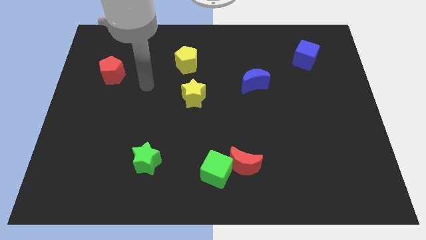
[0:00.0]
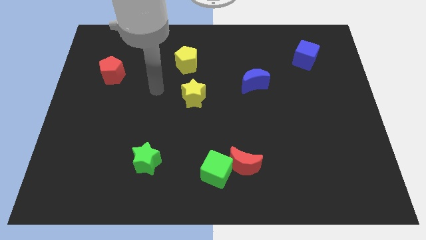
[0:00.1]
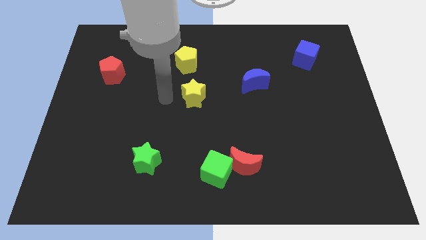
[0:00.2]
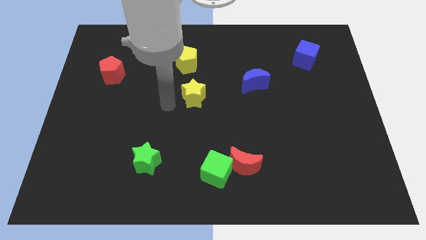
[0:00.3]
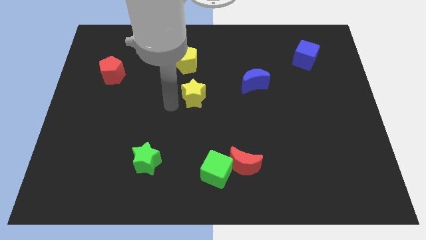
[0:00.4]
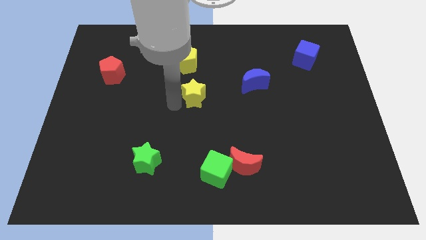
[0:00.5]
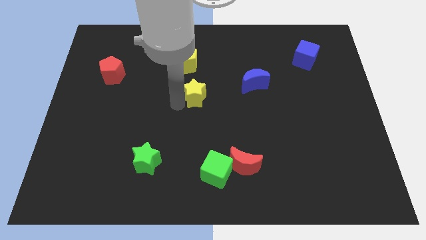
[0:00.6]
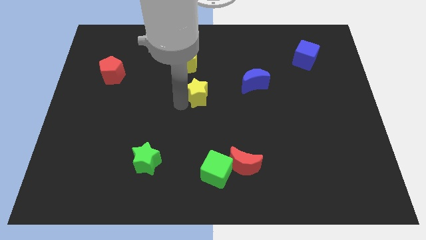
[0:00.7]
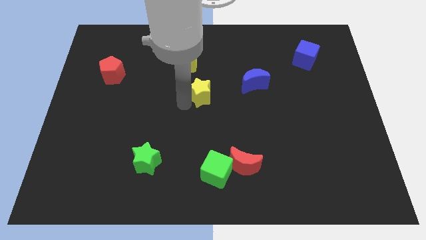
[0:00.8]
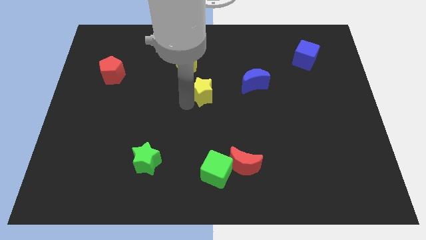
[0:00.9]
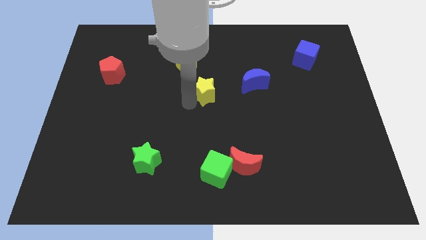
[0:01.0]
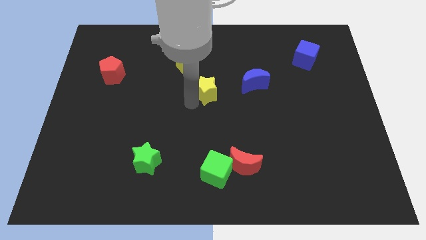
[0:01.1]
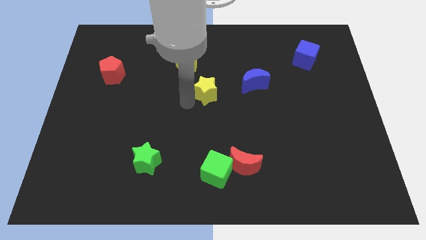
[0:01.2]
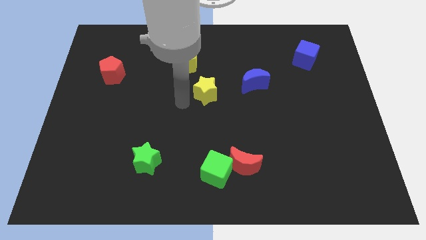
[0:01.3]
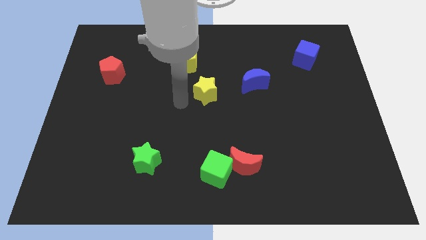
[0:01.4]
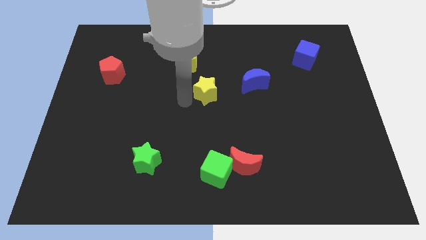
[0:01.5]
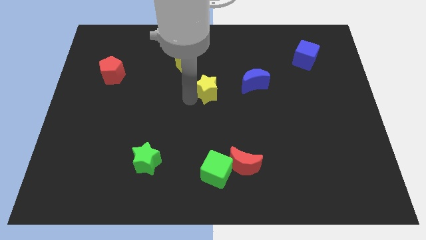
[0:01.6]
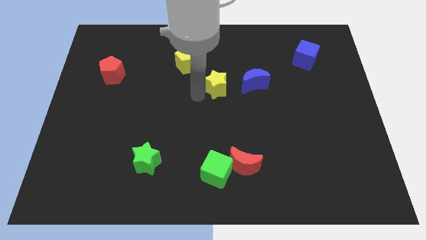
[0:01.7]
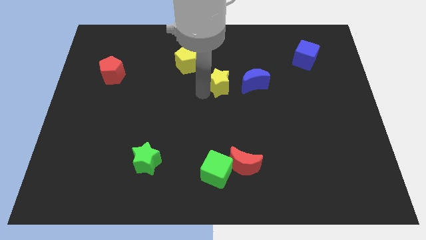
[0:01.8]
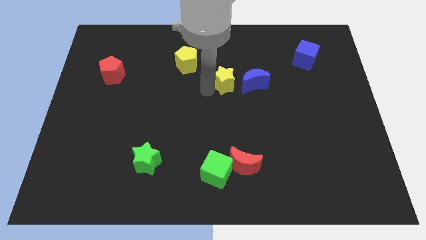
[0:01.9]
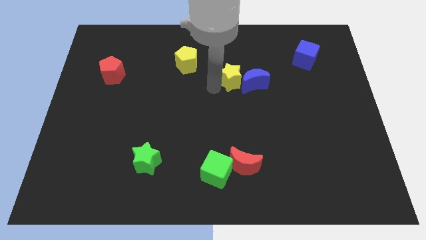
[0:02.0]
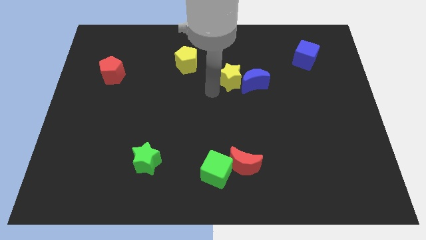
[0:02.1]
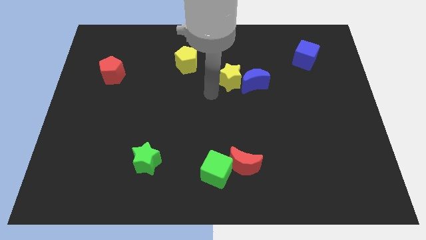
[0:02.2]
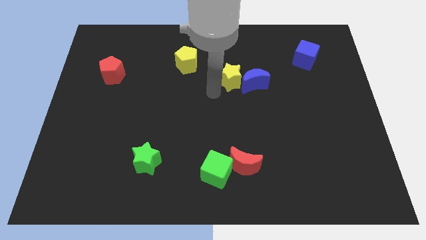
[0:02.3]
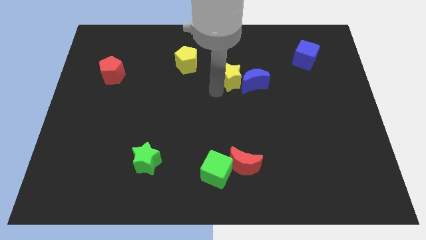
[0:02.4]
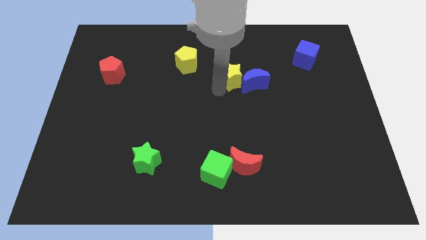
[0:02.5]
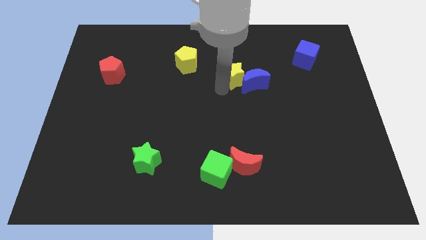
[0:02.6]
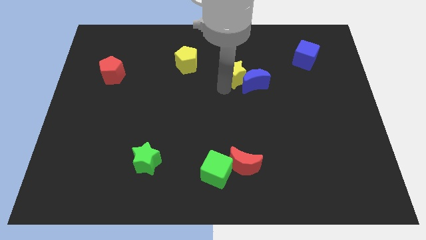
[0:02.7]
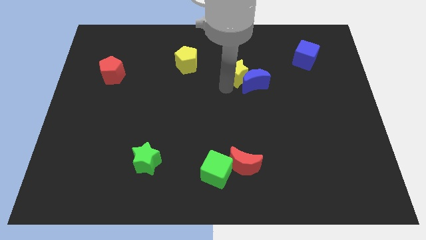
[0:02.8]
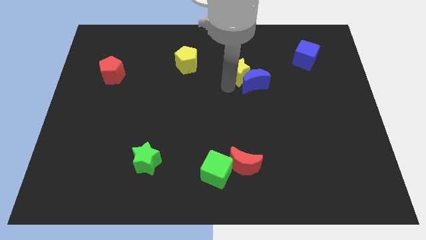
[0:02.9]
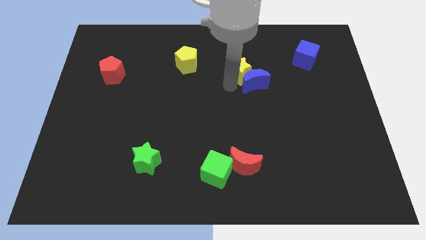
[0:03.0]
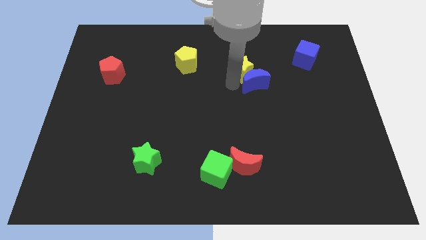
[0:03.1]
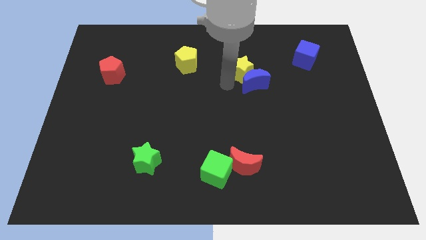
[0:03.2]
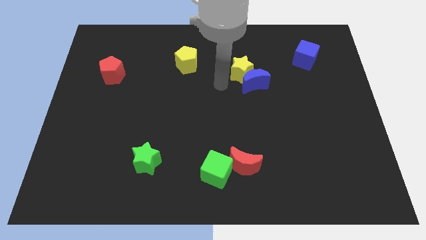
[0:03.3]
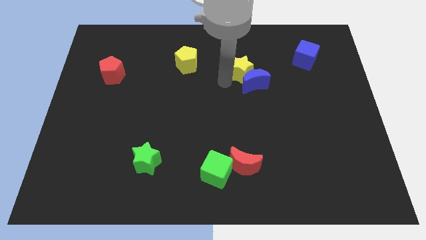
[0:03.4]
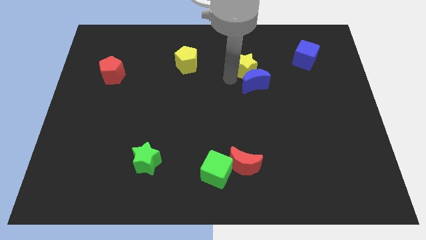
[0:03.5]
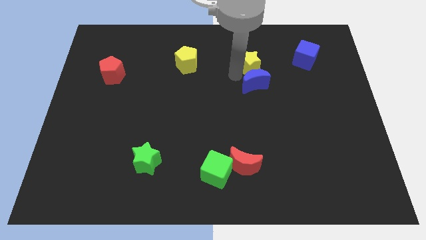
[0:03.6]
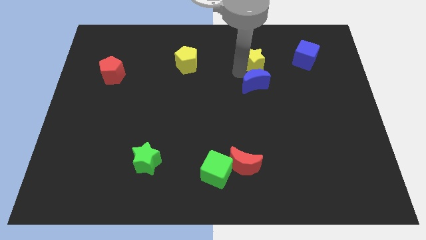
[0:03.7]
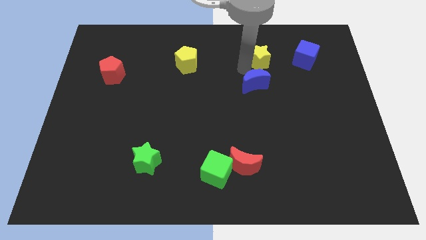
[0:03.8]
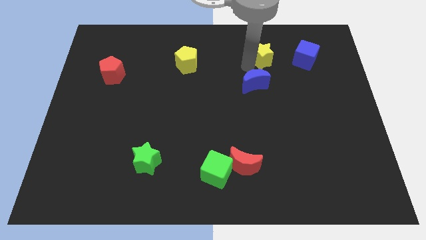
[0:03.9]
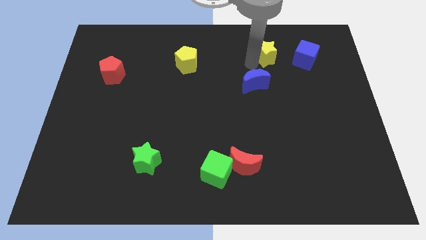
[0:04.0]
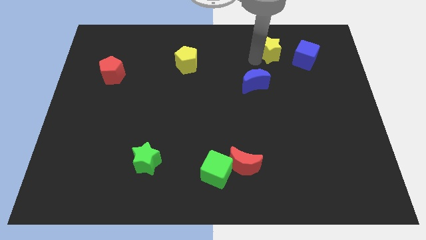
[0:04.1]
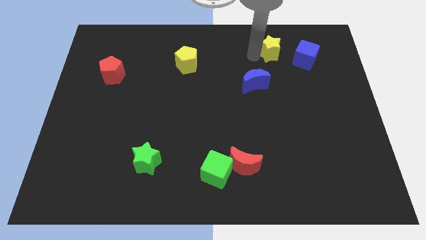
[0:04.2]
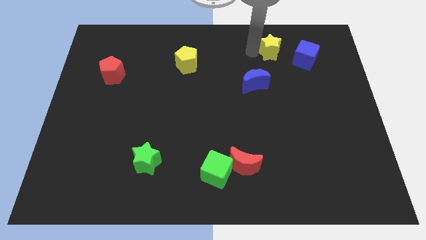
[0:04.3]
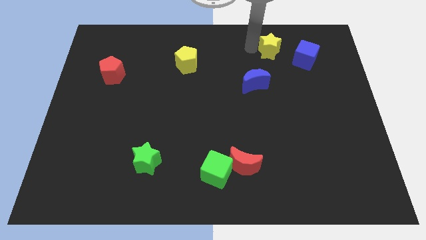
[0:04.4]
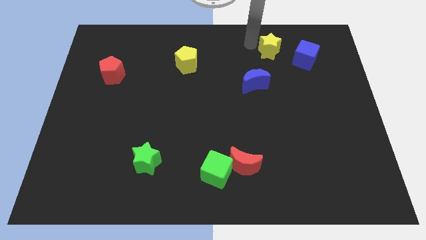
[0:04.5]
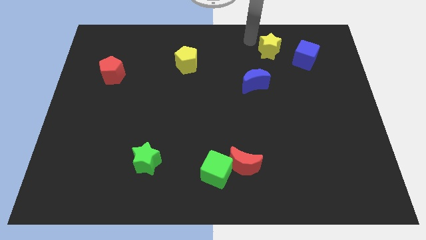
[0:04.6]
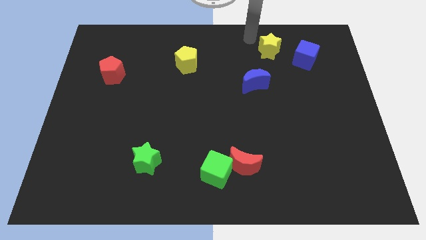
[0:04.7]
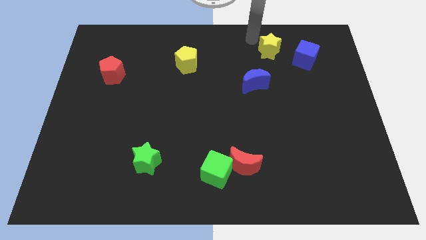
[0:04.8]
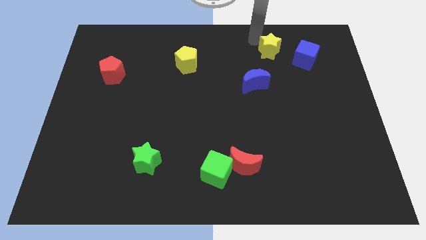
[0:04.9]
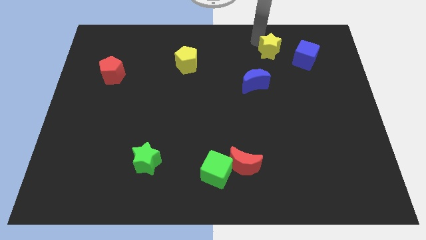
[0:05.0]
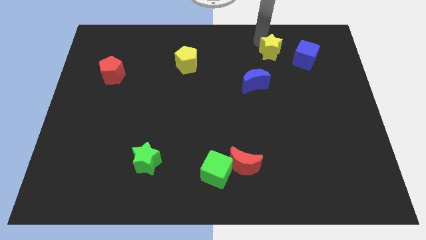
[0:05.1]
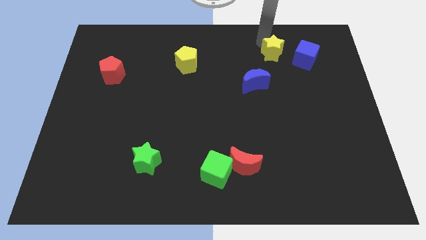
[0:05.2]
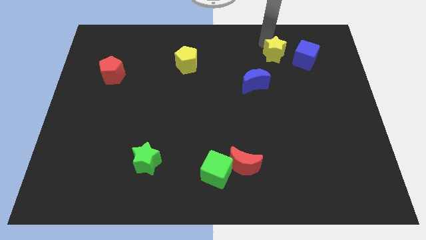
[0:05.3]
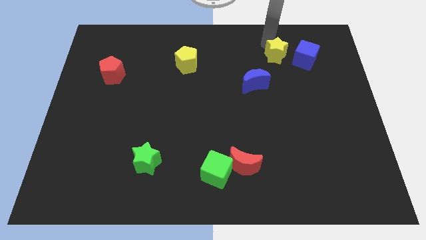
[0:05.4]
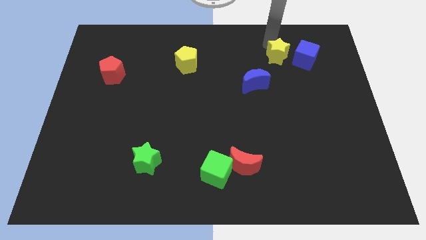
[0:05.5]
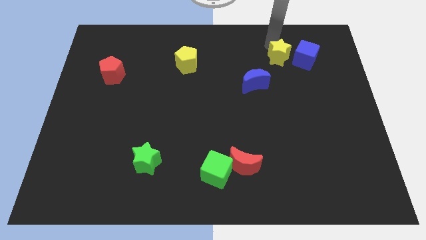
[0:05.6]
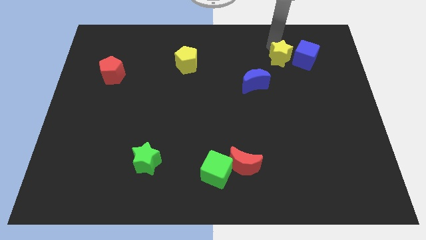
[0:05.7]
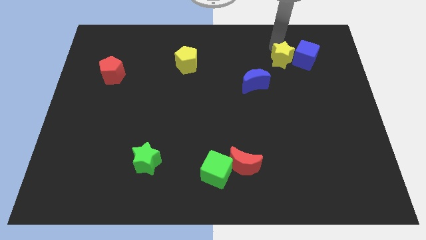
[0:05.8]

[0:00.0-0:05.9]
move the yellow star close to the blue cube

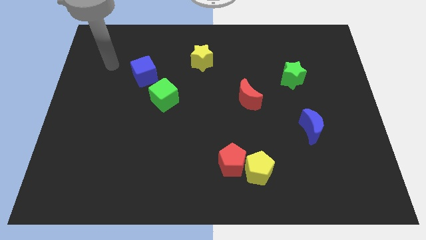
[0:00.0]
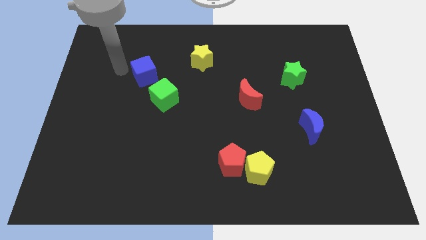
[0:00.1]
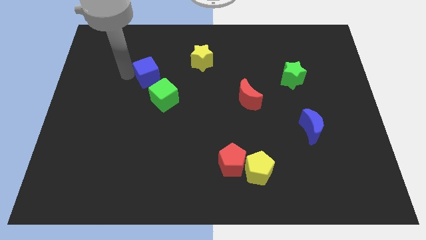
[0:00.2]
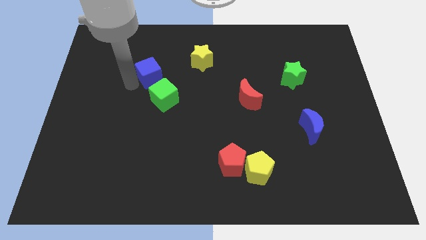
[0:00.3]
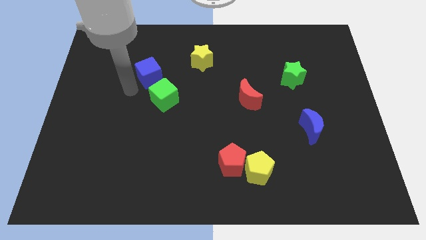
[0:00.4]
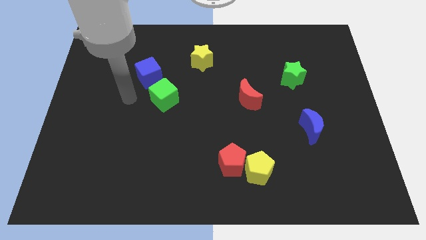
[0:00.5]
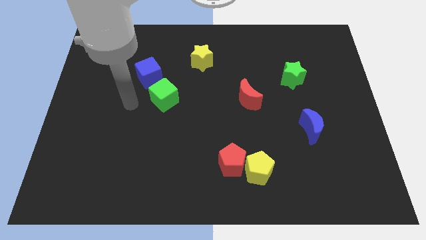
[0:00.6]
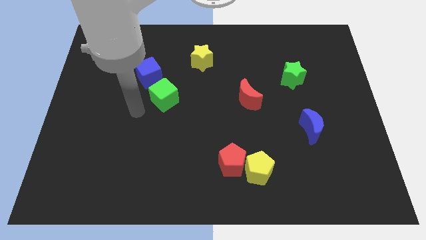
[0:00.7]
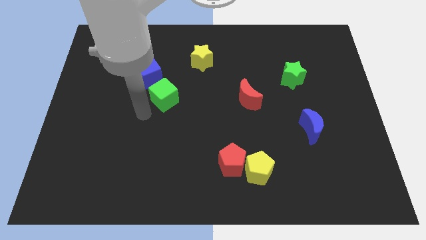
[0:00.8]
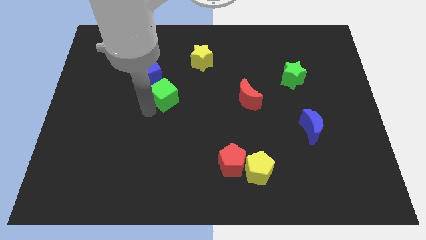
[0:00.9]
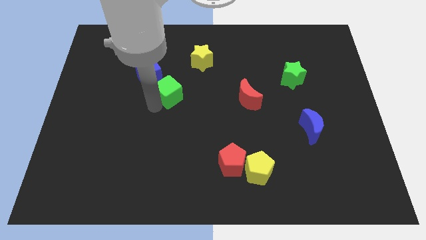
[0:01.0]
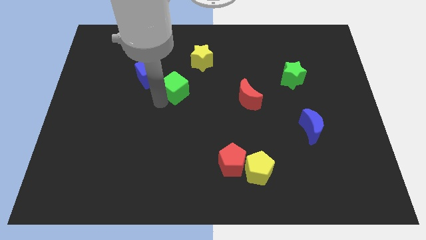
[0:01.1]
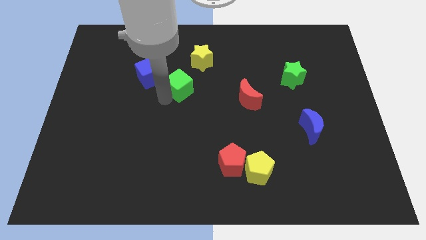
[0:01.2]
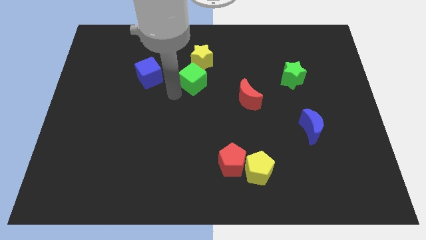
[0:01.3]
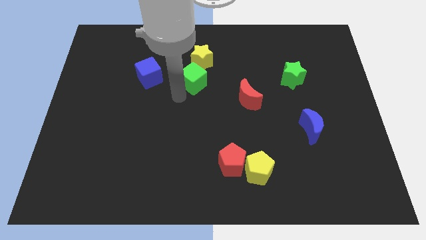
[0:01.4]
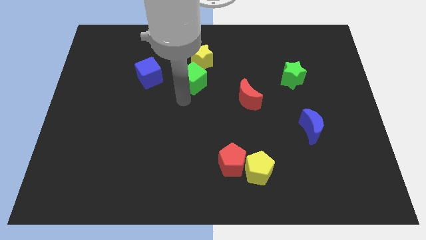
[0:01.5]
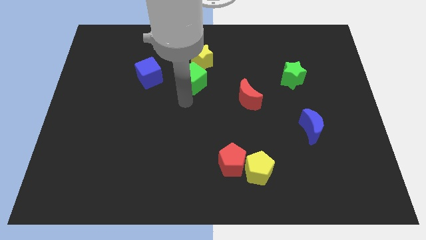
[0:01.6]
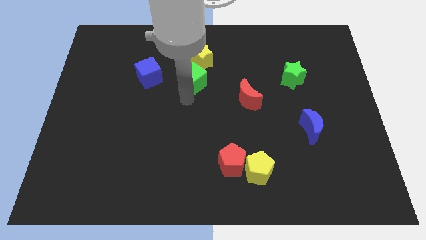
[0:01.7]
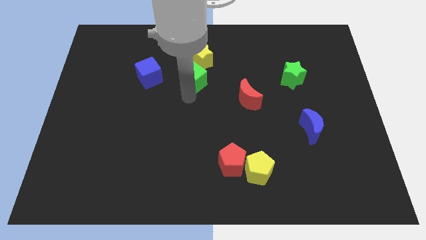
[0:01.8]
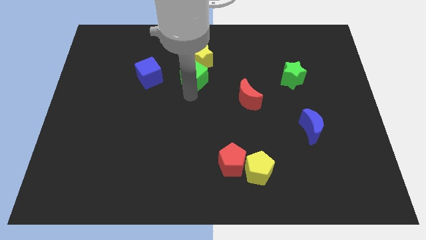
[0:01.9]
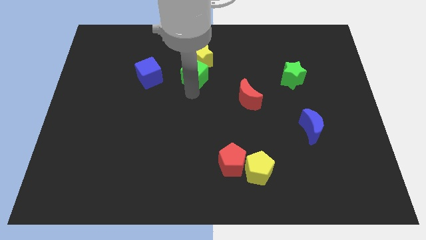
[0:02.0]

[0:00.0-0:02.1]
put the green cube towards the yellow star
